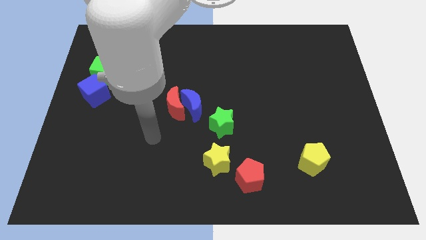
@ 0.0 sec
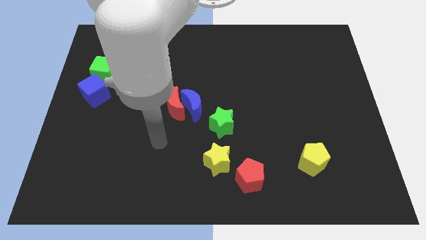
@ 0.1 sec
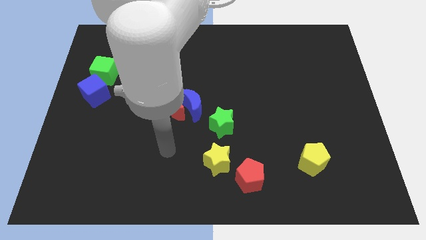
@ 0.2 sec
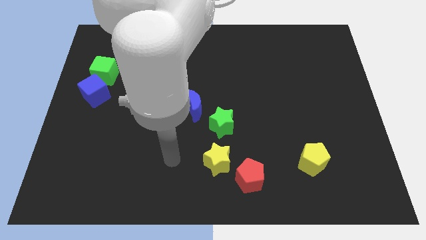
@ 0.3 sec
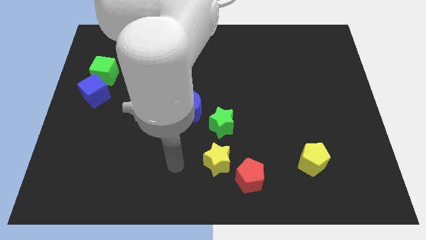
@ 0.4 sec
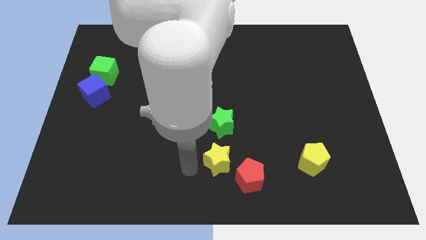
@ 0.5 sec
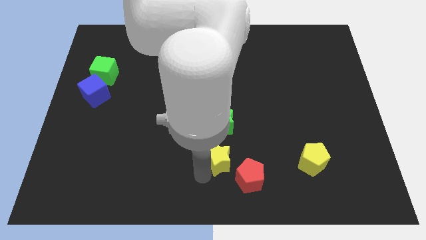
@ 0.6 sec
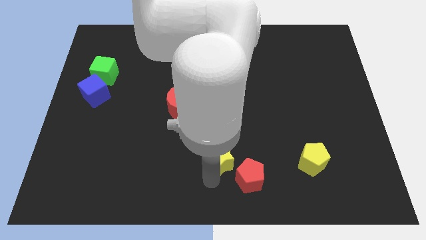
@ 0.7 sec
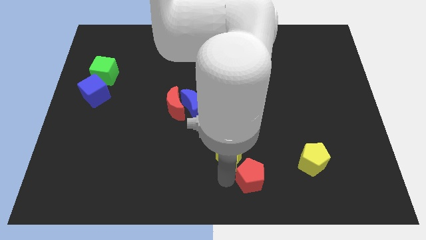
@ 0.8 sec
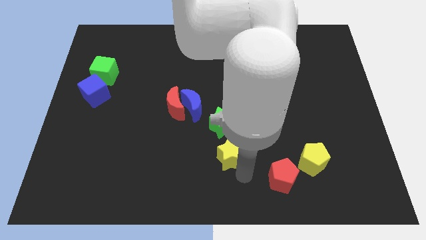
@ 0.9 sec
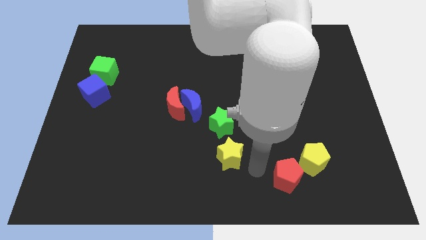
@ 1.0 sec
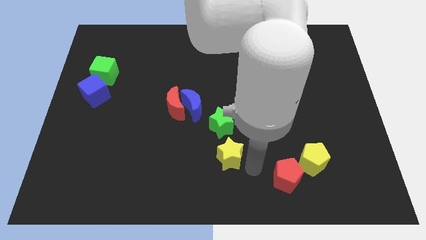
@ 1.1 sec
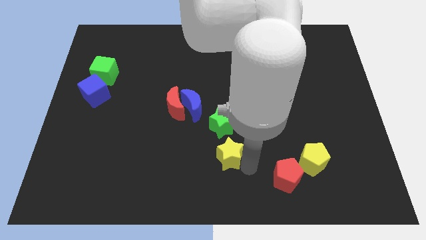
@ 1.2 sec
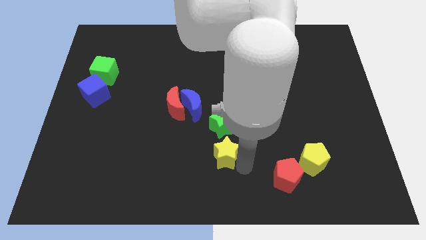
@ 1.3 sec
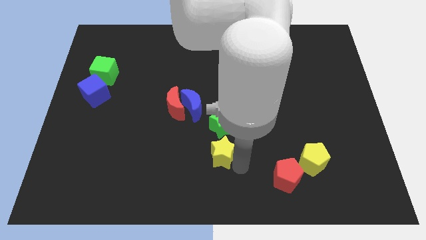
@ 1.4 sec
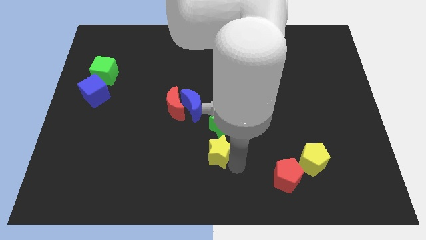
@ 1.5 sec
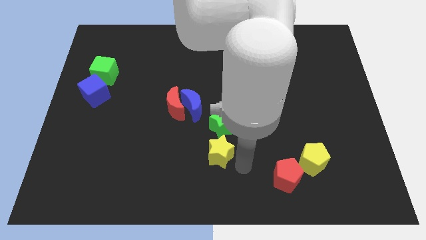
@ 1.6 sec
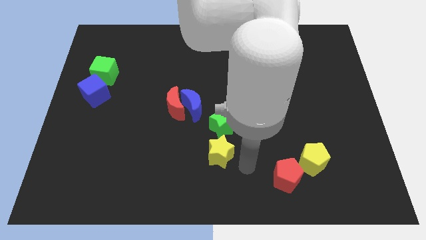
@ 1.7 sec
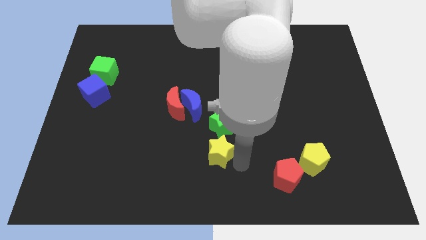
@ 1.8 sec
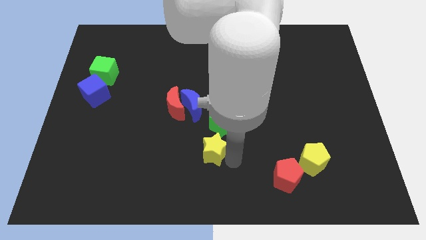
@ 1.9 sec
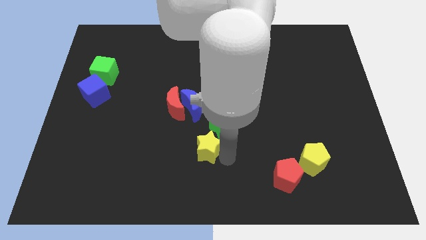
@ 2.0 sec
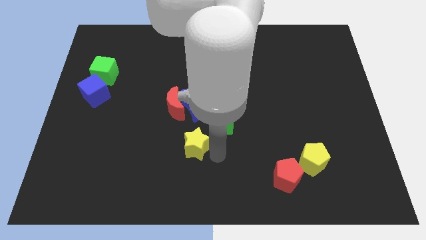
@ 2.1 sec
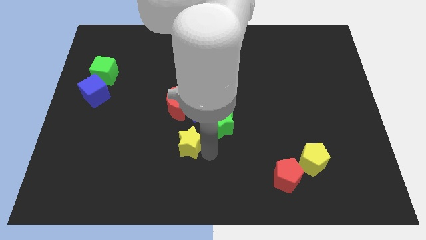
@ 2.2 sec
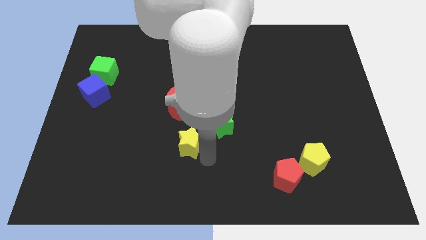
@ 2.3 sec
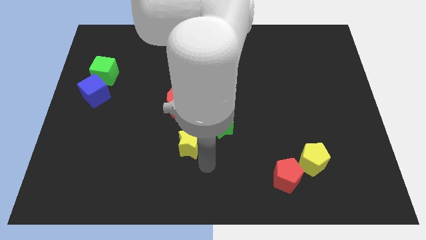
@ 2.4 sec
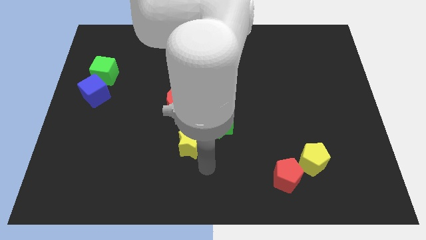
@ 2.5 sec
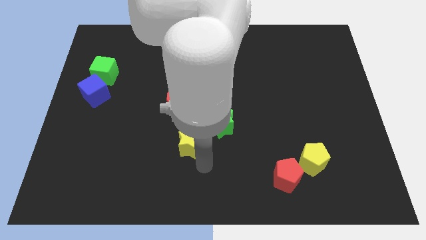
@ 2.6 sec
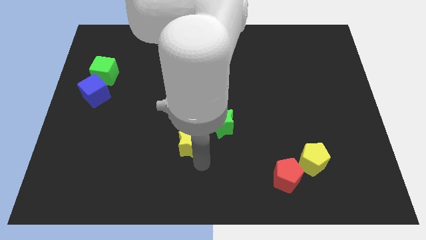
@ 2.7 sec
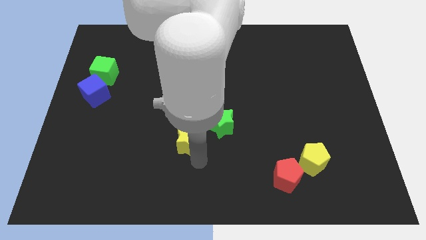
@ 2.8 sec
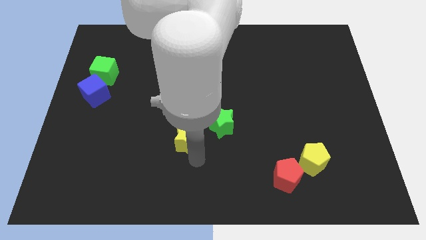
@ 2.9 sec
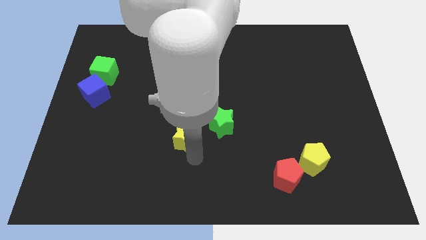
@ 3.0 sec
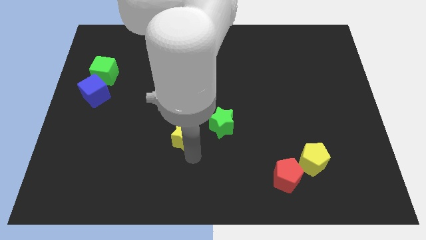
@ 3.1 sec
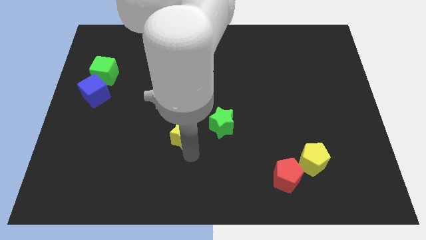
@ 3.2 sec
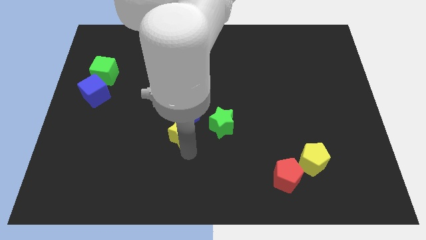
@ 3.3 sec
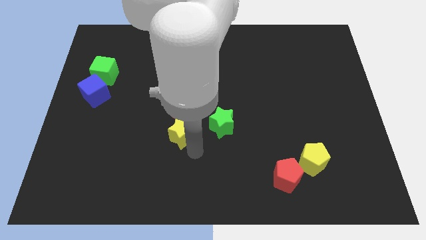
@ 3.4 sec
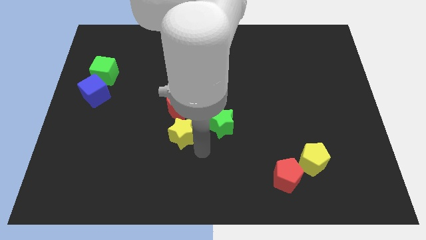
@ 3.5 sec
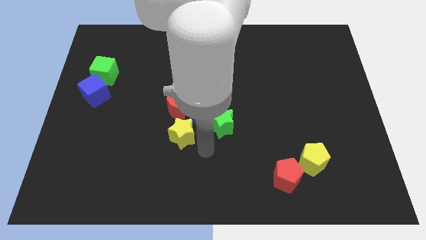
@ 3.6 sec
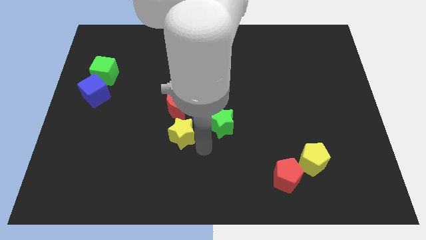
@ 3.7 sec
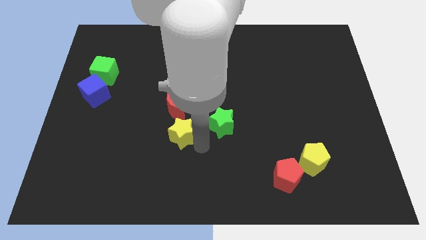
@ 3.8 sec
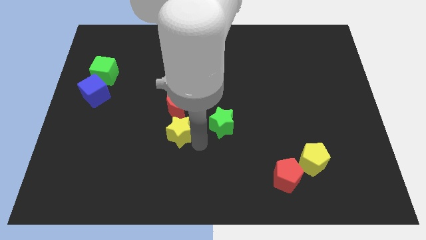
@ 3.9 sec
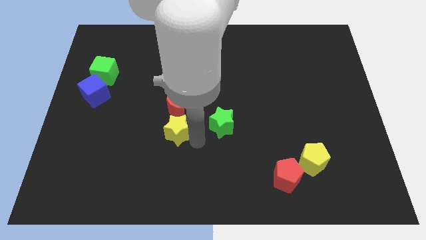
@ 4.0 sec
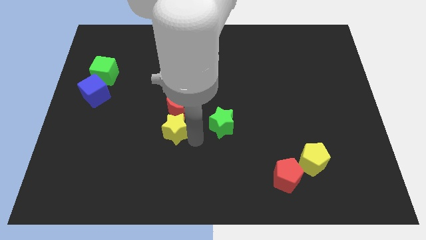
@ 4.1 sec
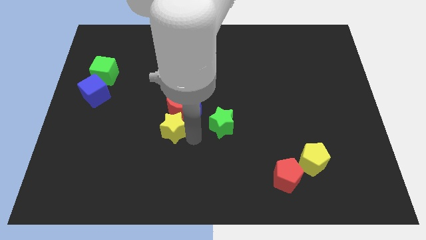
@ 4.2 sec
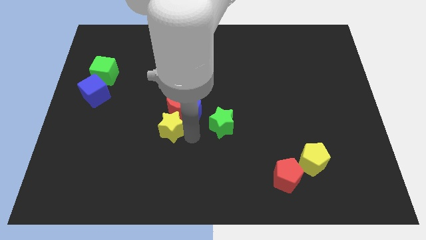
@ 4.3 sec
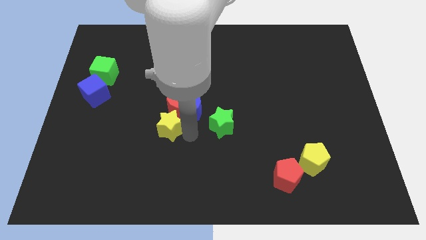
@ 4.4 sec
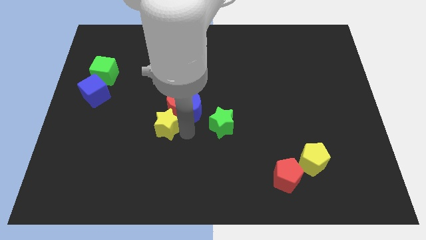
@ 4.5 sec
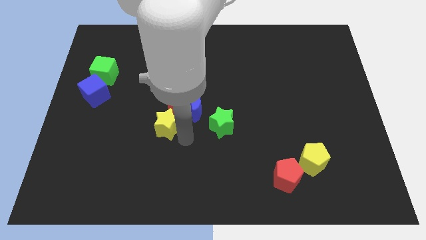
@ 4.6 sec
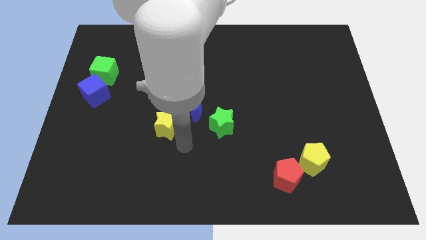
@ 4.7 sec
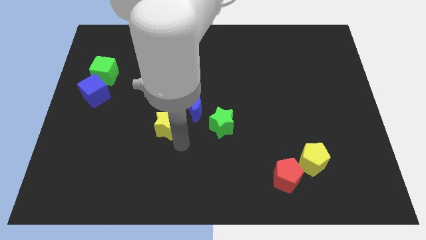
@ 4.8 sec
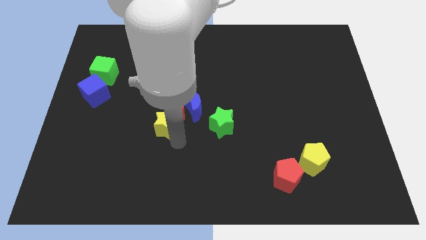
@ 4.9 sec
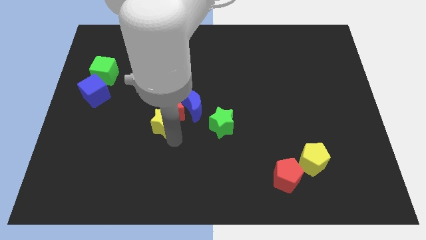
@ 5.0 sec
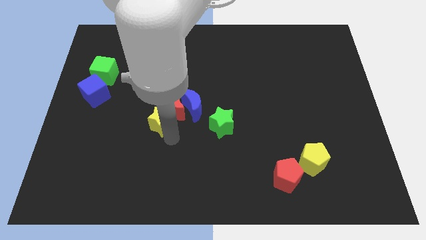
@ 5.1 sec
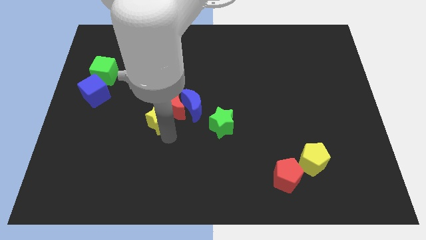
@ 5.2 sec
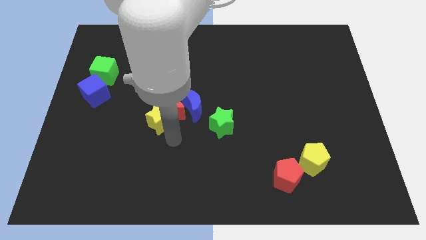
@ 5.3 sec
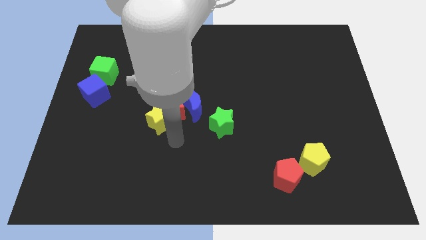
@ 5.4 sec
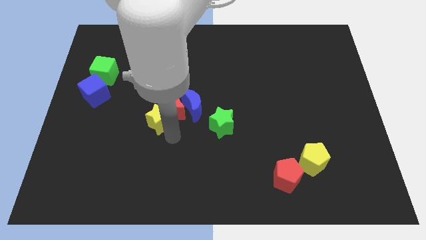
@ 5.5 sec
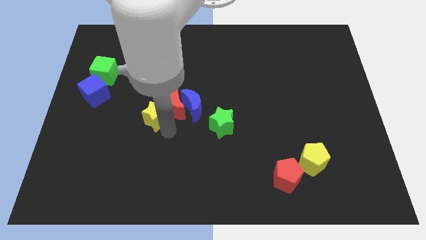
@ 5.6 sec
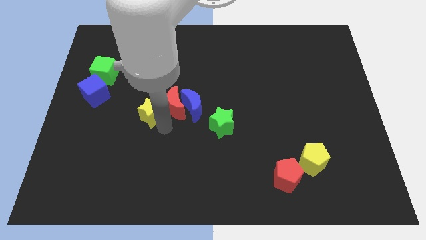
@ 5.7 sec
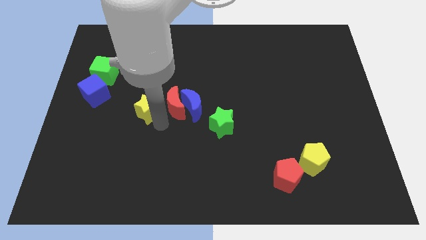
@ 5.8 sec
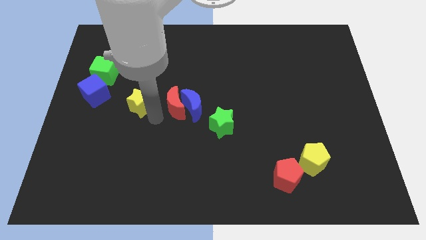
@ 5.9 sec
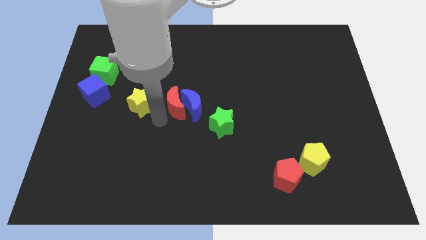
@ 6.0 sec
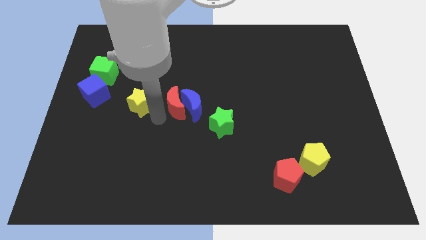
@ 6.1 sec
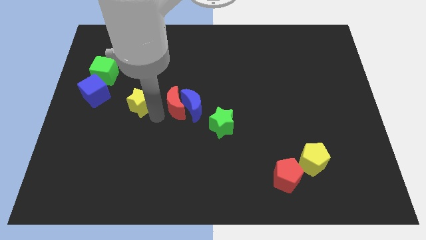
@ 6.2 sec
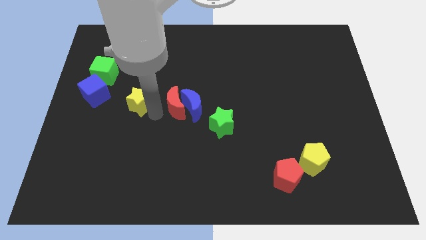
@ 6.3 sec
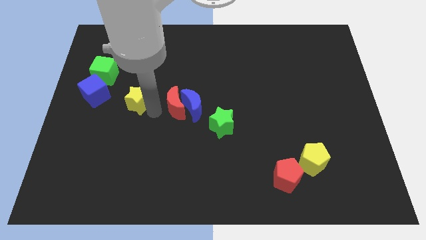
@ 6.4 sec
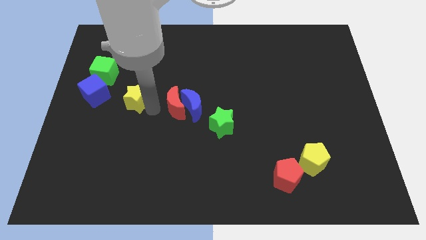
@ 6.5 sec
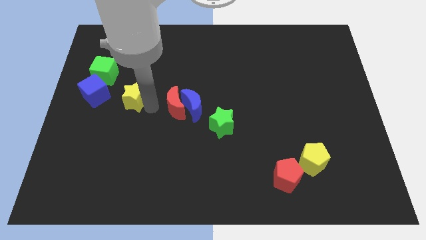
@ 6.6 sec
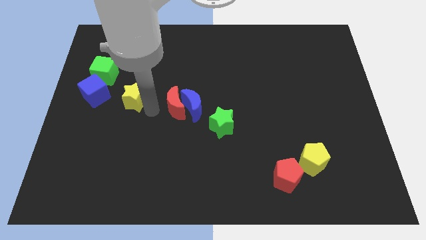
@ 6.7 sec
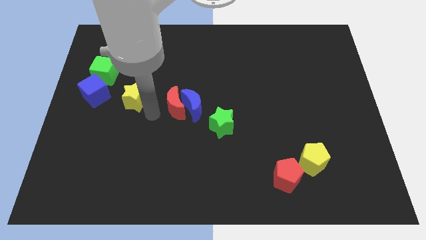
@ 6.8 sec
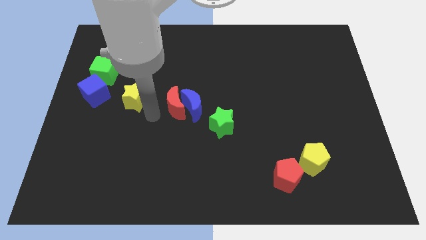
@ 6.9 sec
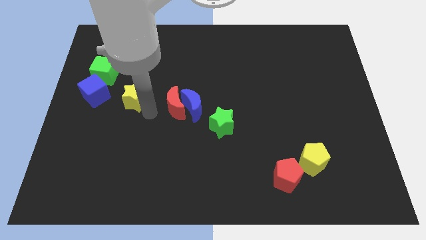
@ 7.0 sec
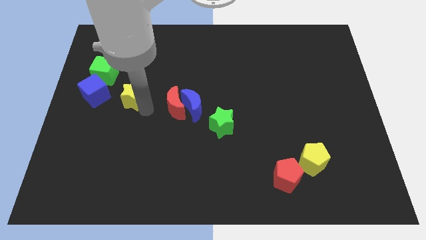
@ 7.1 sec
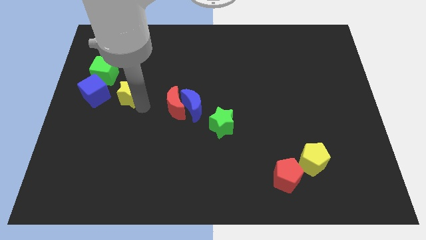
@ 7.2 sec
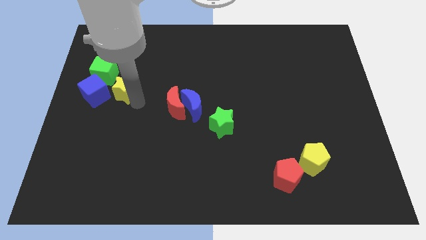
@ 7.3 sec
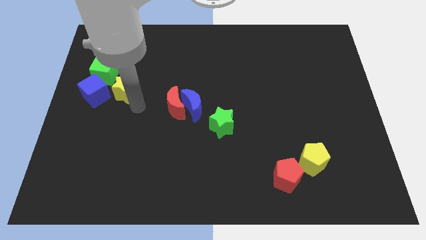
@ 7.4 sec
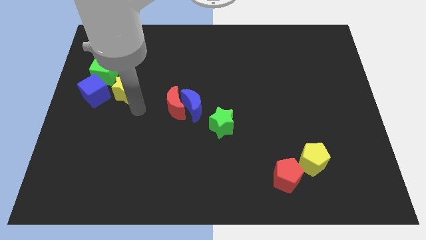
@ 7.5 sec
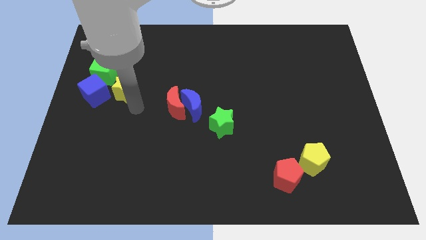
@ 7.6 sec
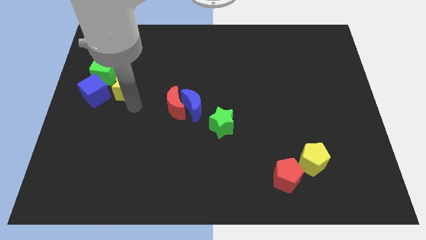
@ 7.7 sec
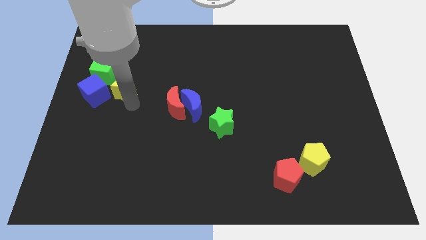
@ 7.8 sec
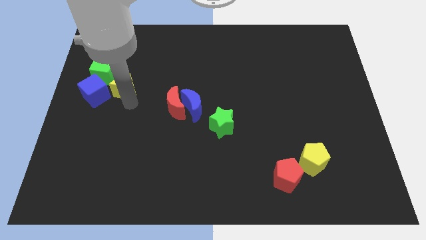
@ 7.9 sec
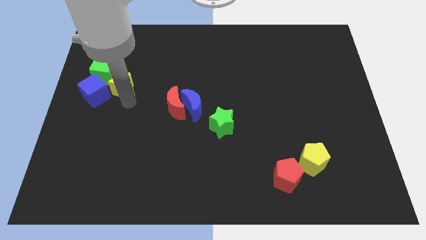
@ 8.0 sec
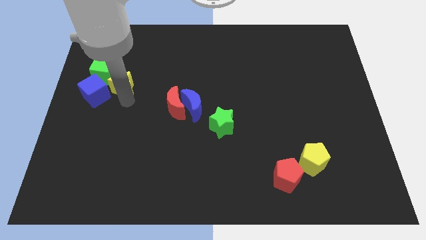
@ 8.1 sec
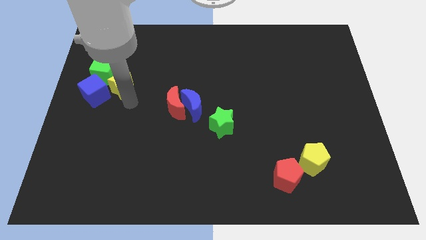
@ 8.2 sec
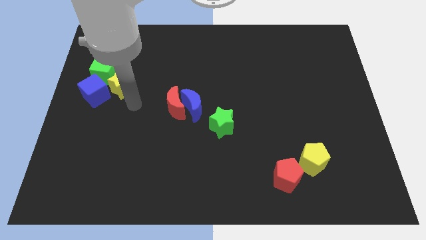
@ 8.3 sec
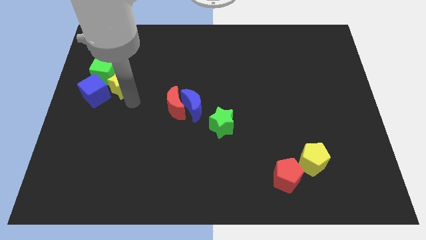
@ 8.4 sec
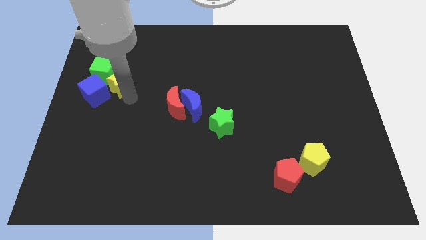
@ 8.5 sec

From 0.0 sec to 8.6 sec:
put the yellow star next to the green cube
